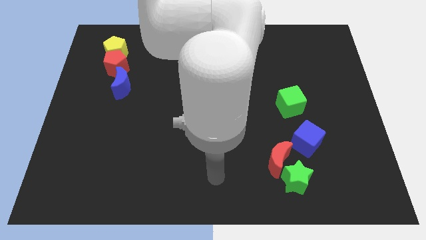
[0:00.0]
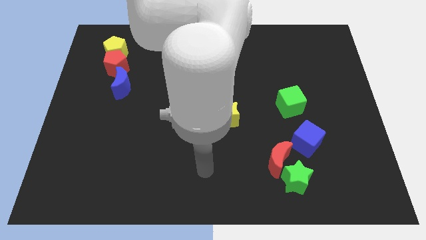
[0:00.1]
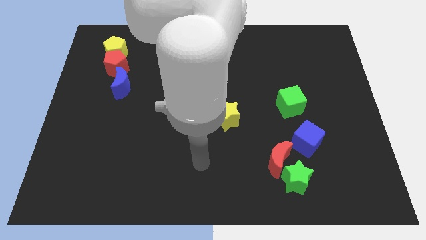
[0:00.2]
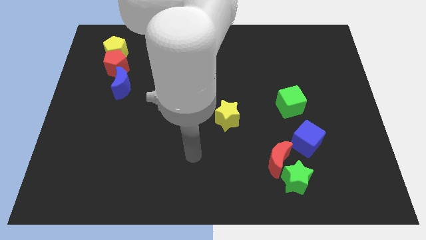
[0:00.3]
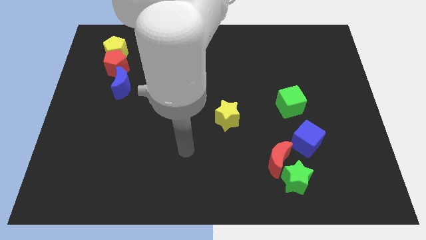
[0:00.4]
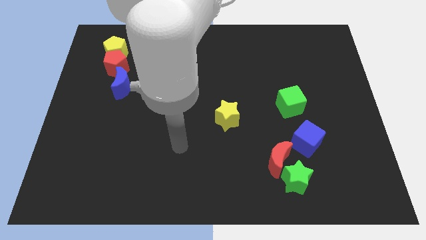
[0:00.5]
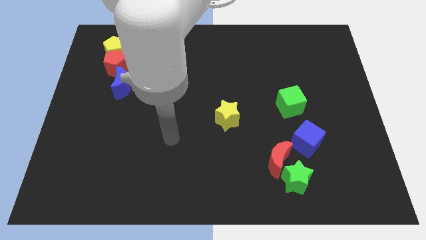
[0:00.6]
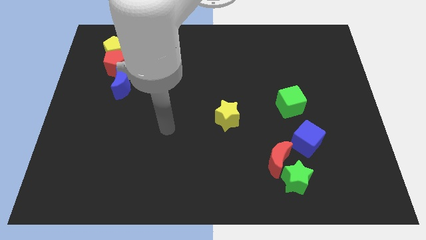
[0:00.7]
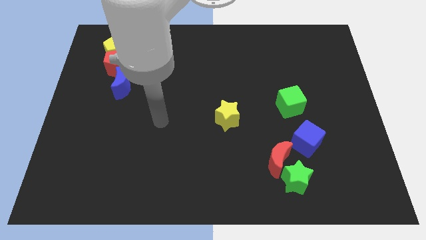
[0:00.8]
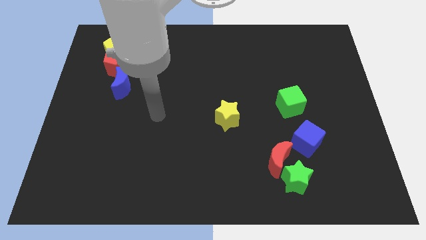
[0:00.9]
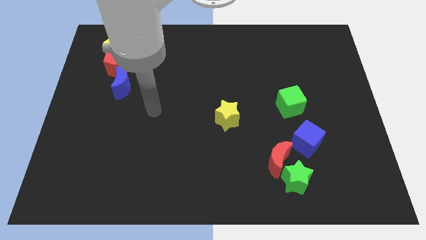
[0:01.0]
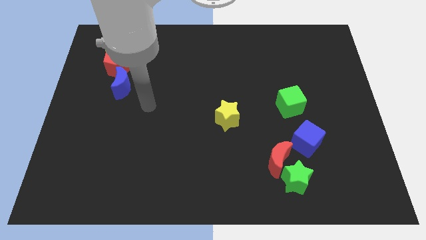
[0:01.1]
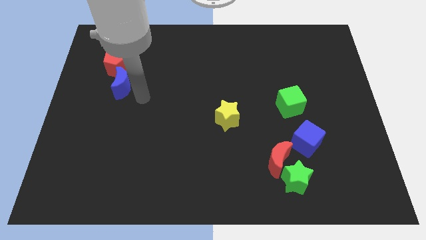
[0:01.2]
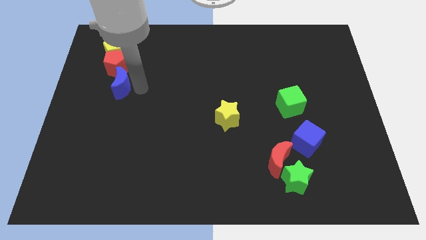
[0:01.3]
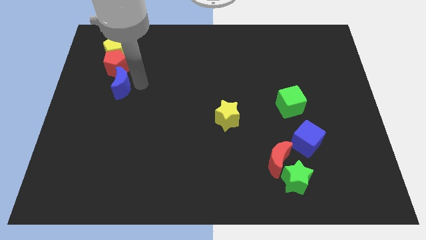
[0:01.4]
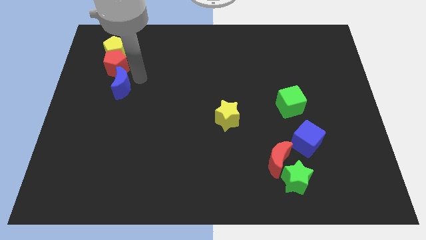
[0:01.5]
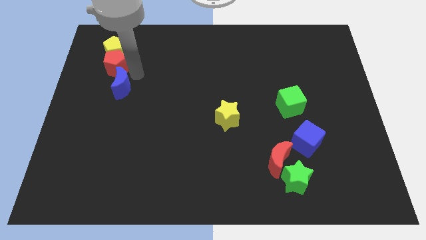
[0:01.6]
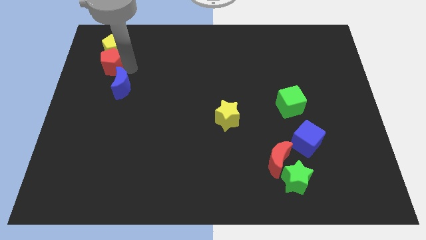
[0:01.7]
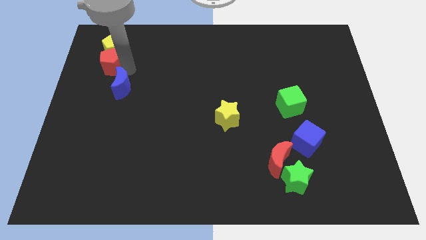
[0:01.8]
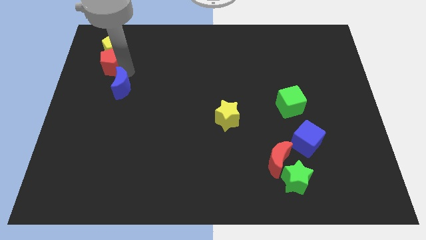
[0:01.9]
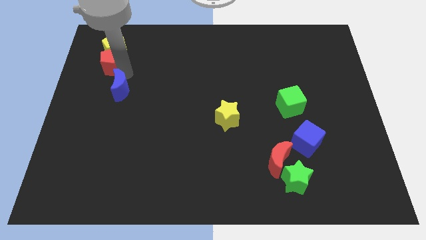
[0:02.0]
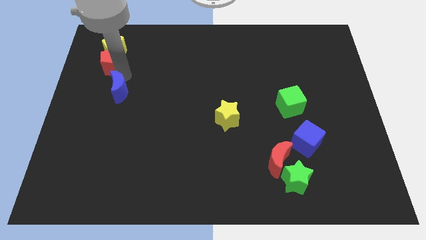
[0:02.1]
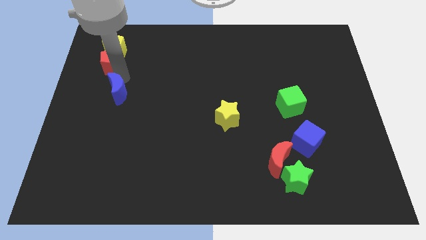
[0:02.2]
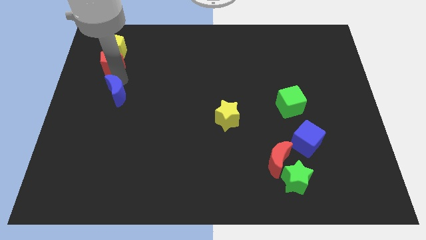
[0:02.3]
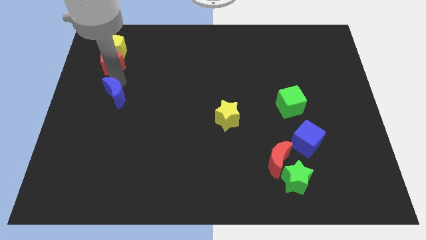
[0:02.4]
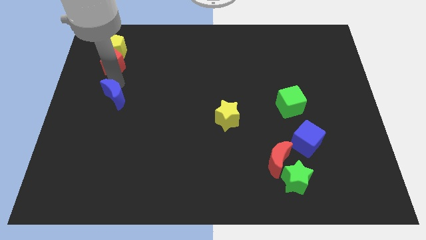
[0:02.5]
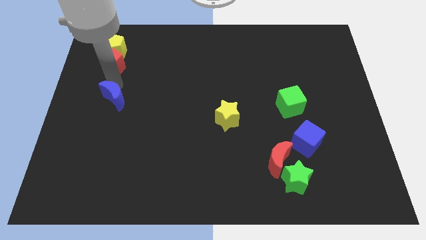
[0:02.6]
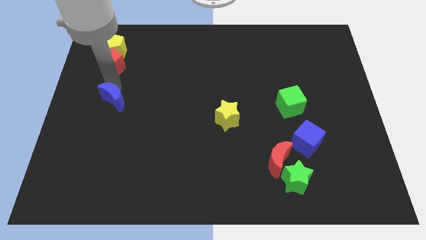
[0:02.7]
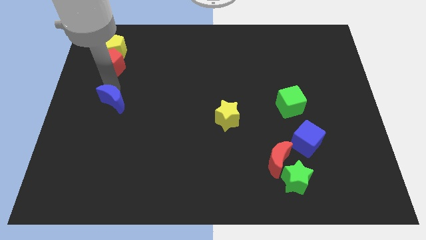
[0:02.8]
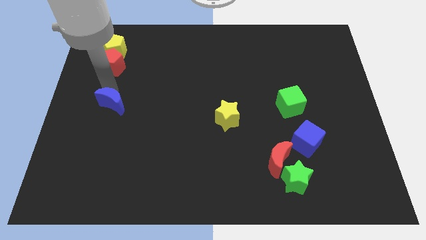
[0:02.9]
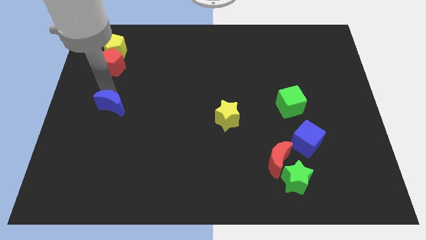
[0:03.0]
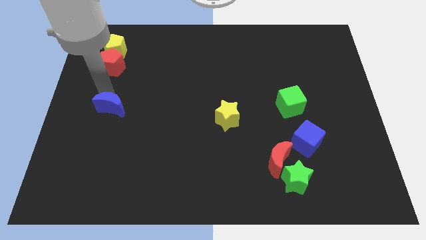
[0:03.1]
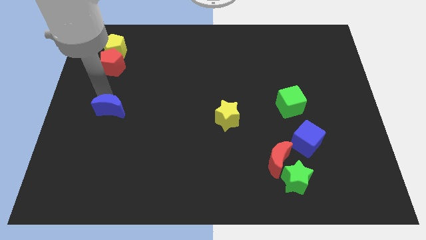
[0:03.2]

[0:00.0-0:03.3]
slightly move the blue moon down

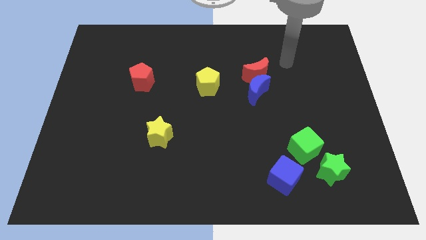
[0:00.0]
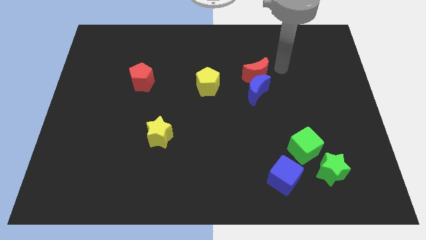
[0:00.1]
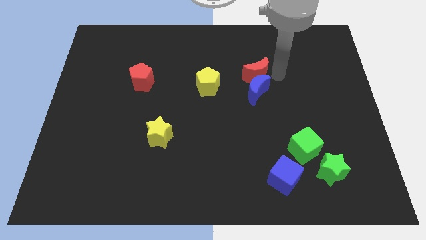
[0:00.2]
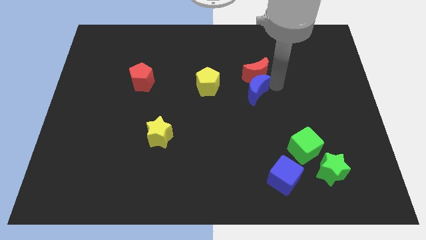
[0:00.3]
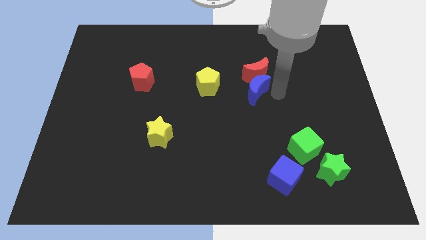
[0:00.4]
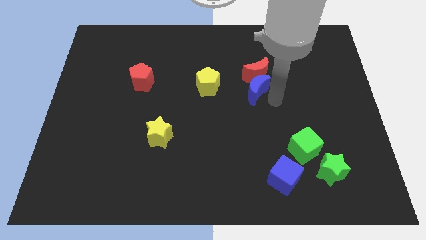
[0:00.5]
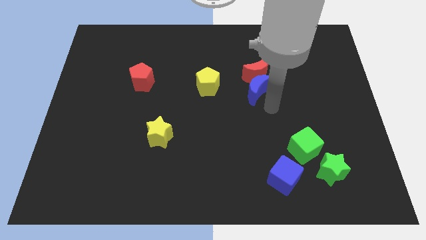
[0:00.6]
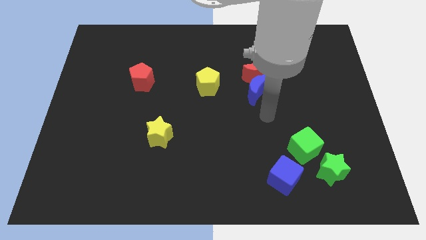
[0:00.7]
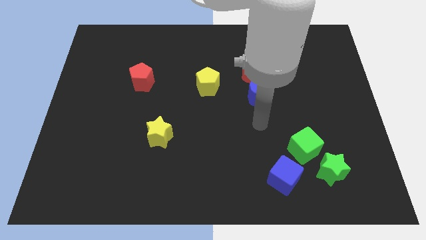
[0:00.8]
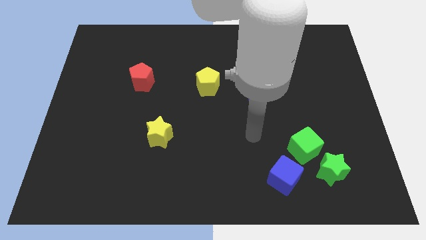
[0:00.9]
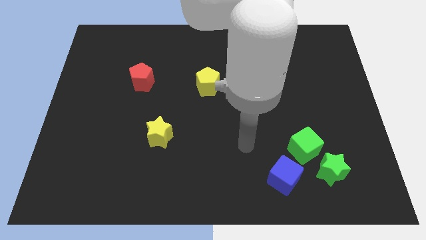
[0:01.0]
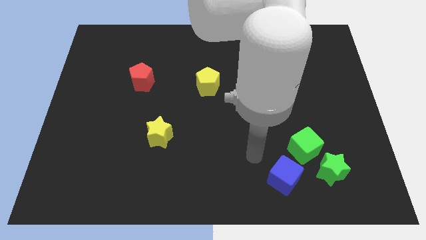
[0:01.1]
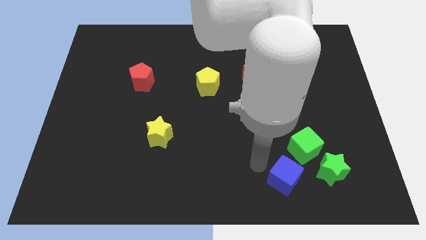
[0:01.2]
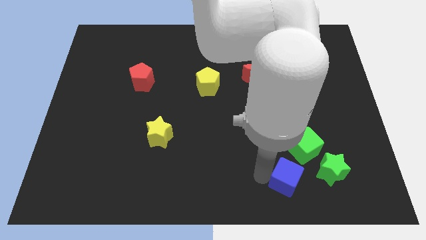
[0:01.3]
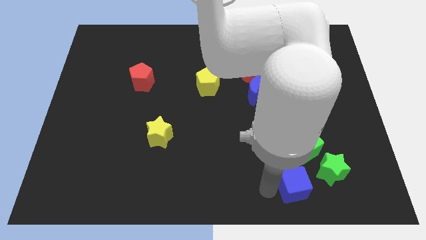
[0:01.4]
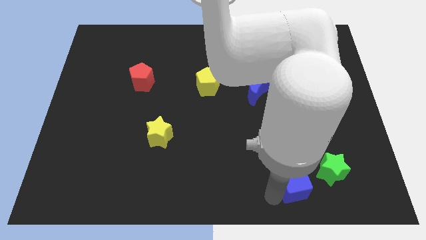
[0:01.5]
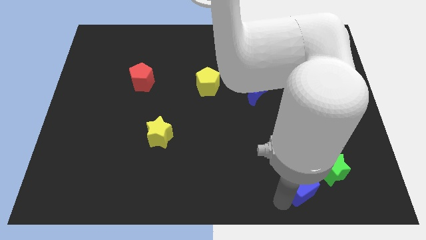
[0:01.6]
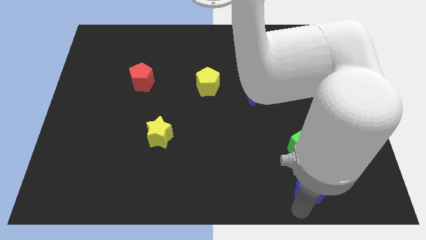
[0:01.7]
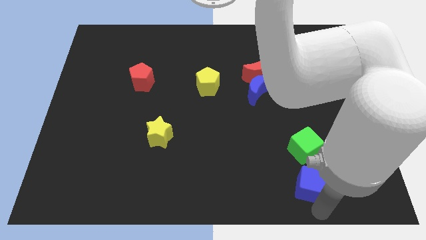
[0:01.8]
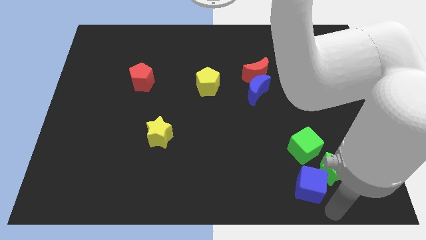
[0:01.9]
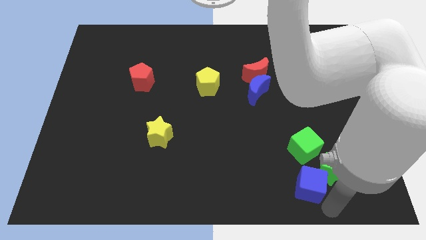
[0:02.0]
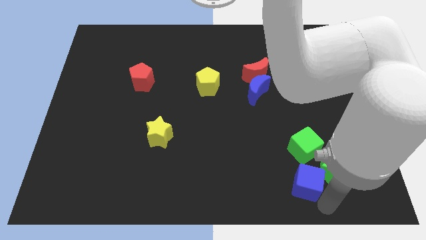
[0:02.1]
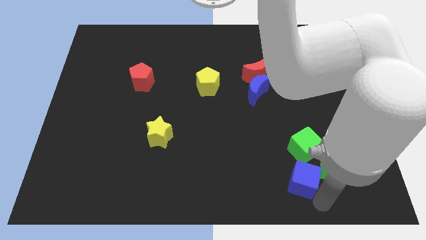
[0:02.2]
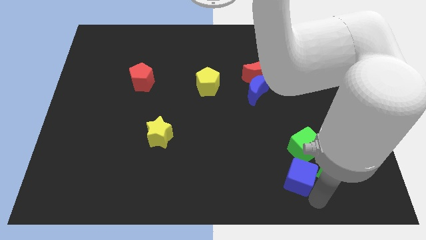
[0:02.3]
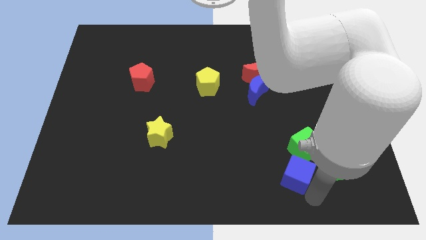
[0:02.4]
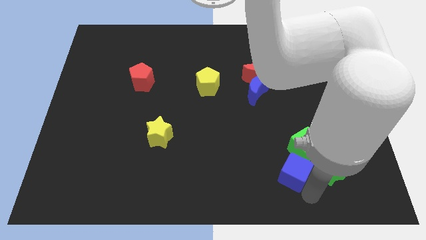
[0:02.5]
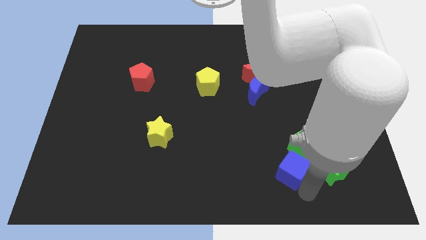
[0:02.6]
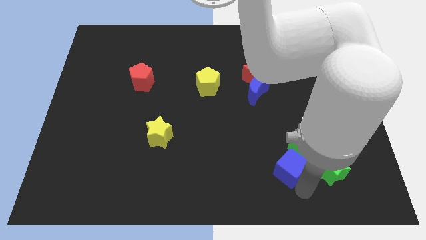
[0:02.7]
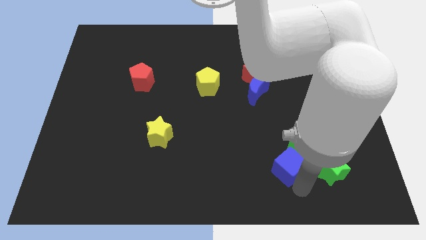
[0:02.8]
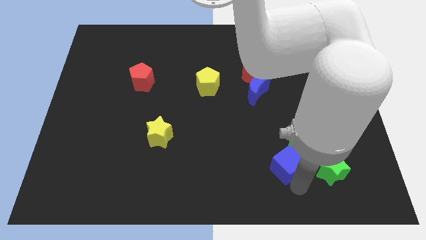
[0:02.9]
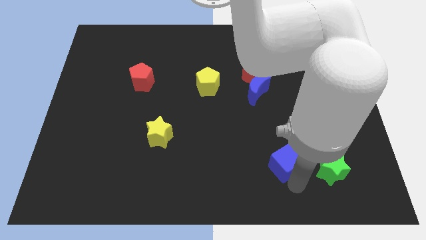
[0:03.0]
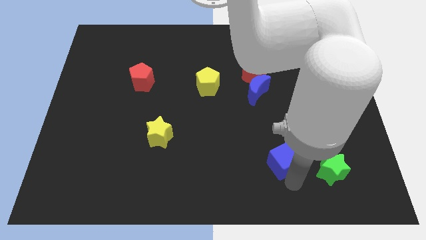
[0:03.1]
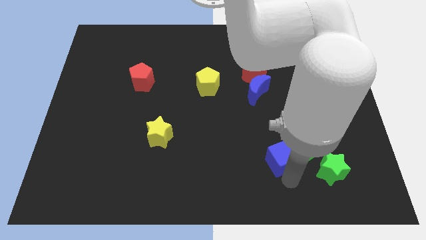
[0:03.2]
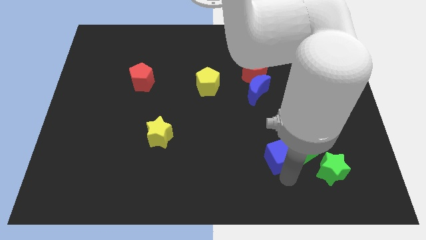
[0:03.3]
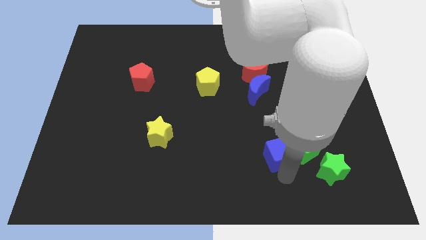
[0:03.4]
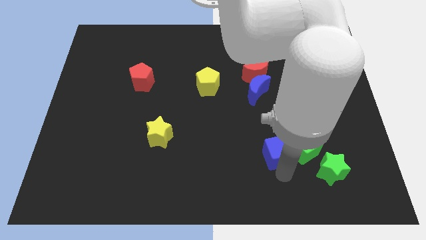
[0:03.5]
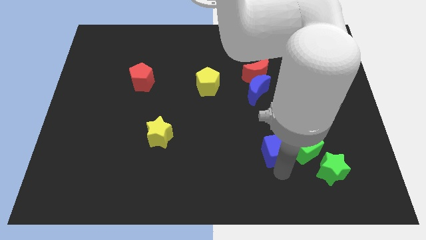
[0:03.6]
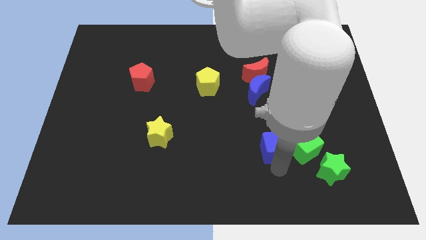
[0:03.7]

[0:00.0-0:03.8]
push the blue cube a little bit up

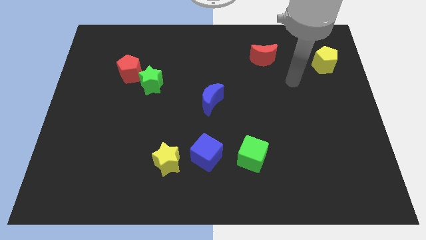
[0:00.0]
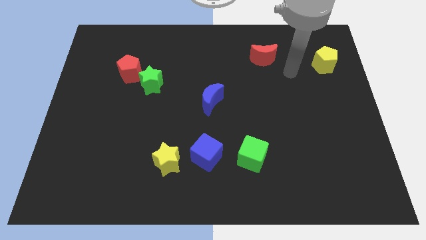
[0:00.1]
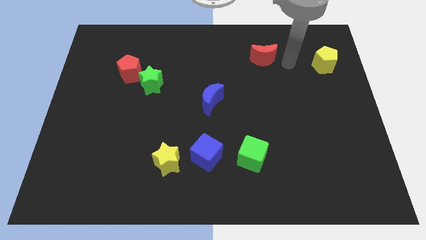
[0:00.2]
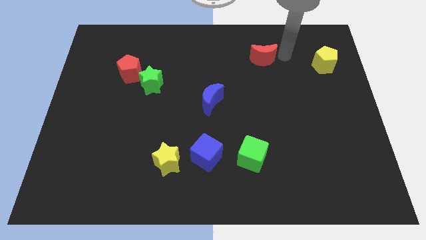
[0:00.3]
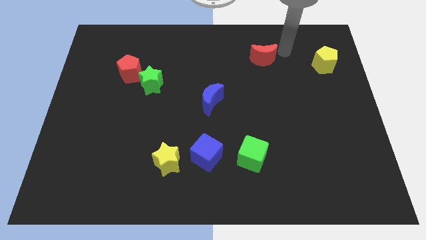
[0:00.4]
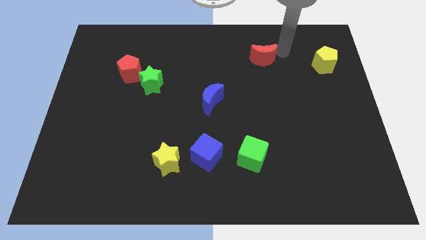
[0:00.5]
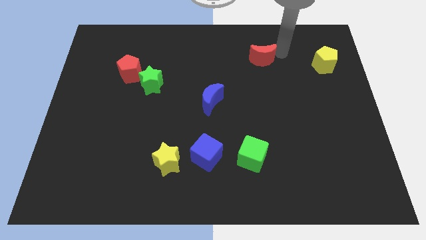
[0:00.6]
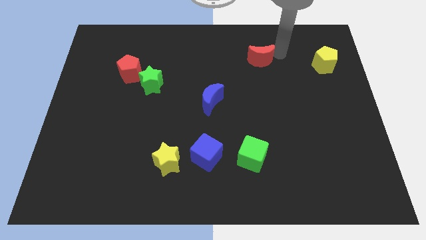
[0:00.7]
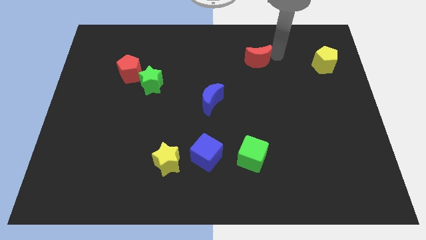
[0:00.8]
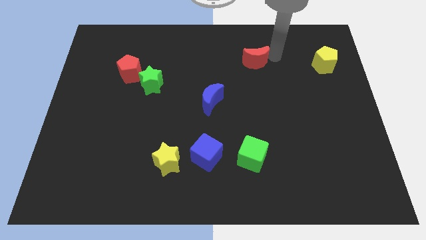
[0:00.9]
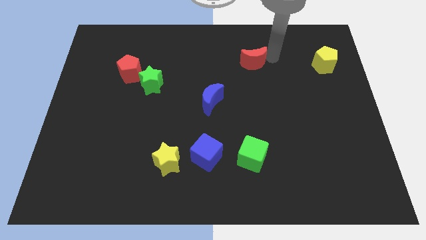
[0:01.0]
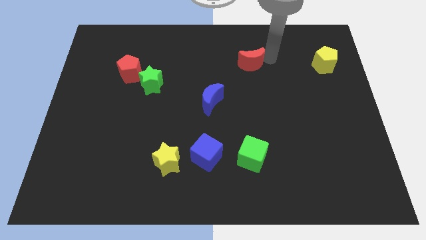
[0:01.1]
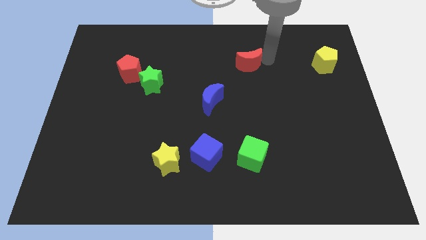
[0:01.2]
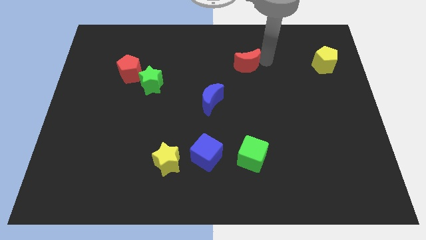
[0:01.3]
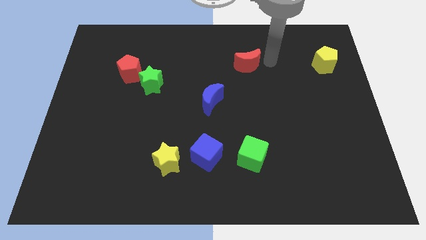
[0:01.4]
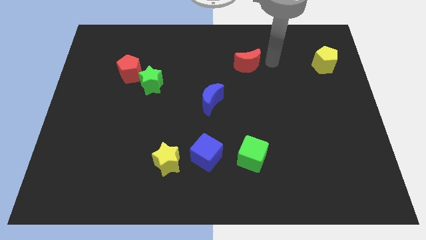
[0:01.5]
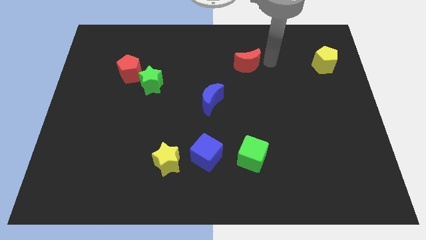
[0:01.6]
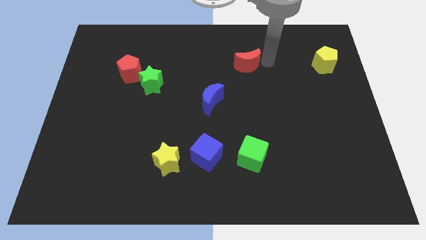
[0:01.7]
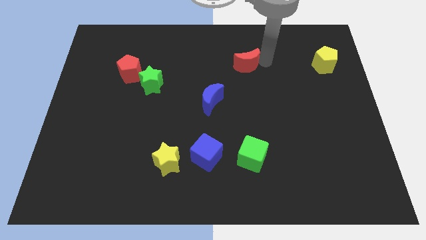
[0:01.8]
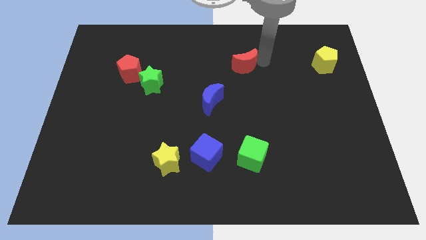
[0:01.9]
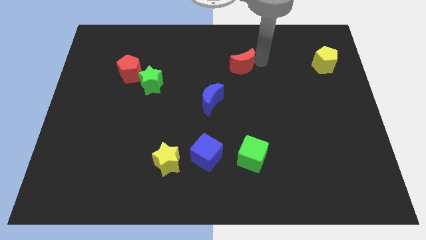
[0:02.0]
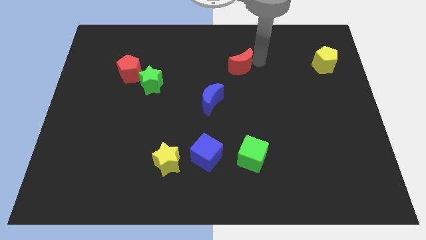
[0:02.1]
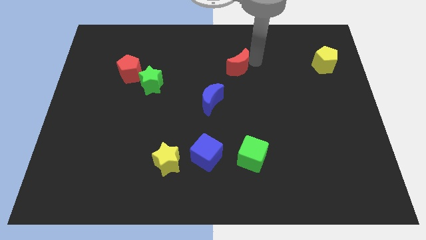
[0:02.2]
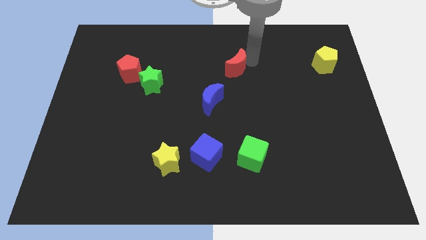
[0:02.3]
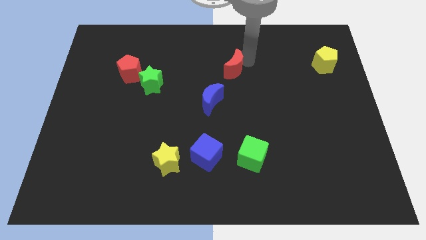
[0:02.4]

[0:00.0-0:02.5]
move the red moon a little to the left
